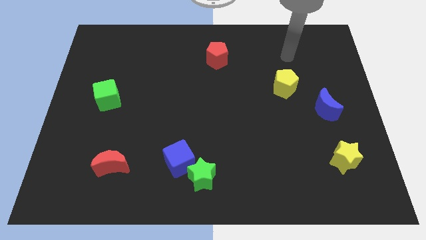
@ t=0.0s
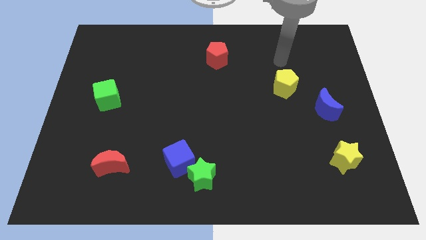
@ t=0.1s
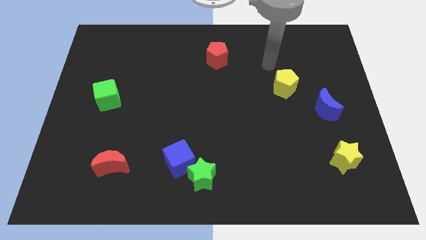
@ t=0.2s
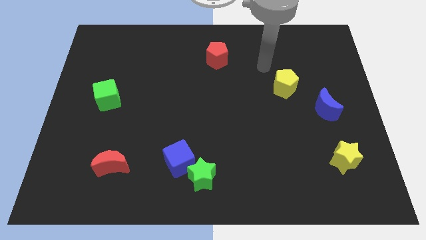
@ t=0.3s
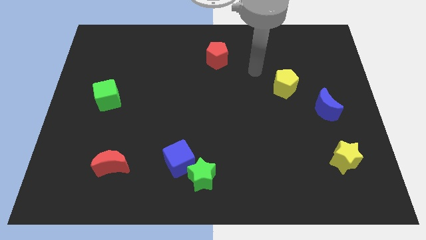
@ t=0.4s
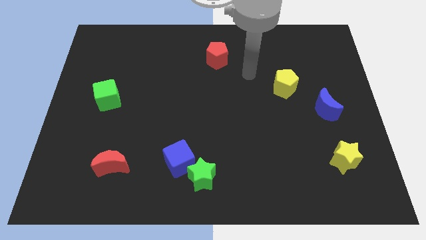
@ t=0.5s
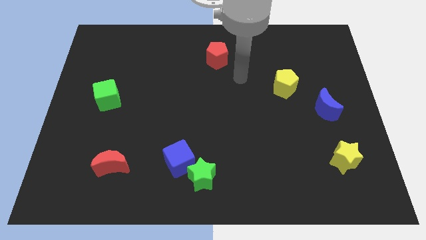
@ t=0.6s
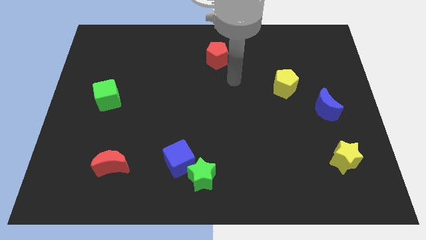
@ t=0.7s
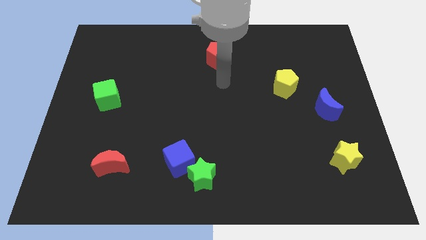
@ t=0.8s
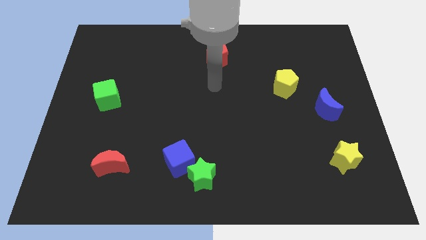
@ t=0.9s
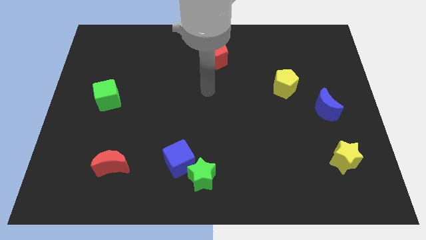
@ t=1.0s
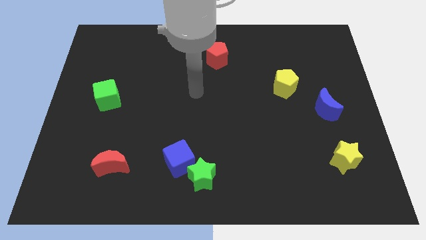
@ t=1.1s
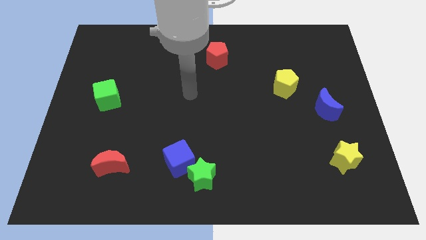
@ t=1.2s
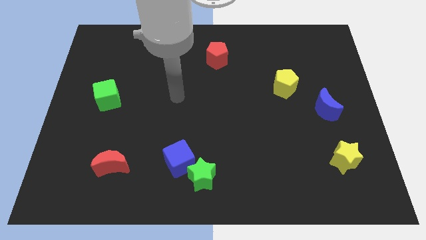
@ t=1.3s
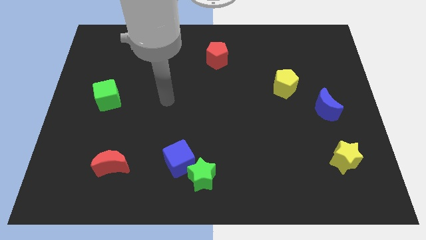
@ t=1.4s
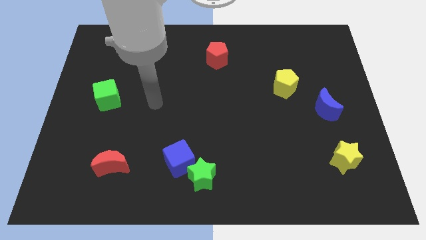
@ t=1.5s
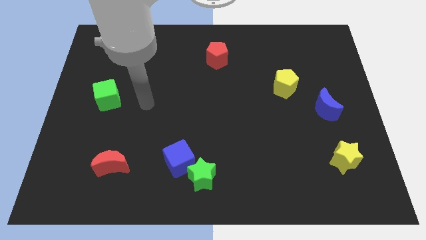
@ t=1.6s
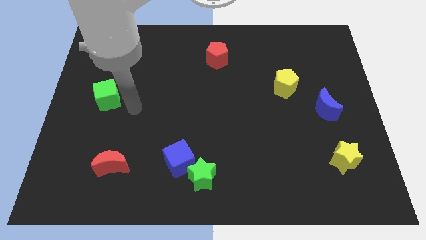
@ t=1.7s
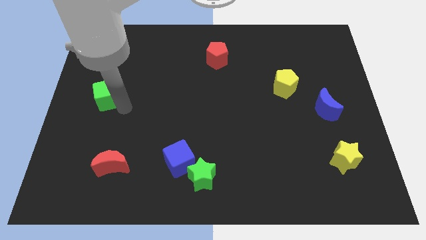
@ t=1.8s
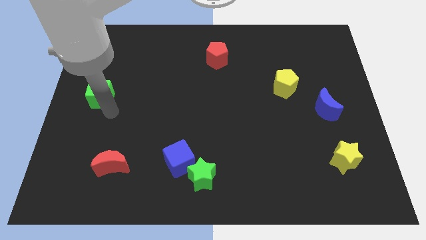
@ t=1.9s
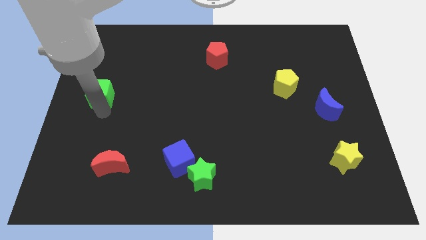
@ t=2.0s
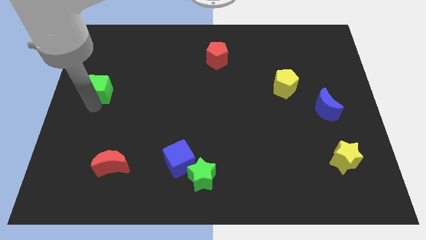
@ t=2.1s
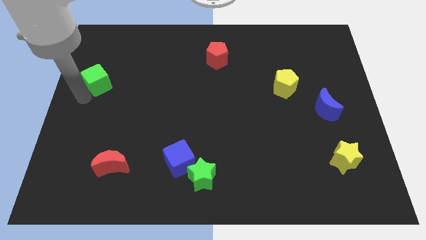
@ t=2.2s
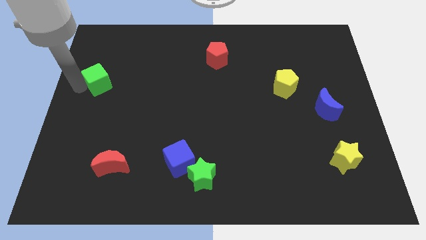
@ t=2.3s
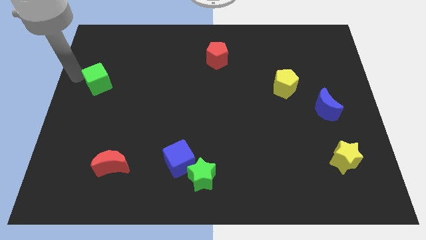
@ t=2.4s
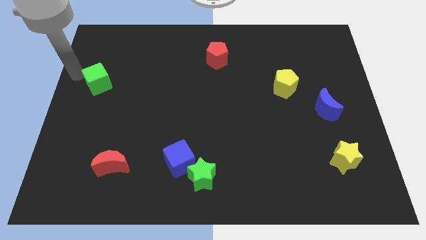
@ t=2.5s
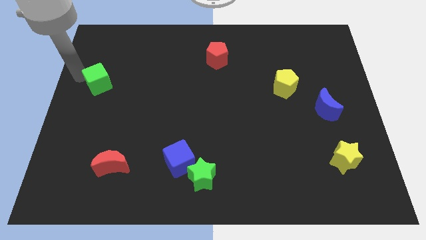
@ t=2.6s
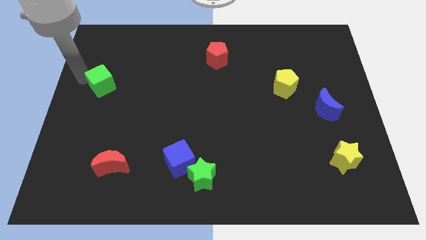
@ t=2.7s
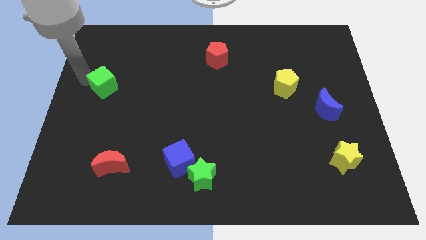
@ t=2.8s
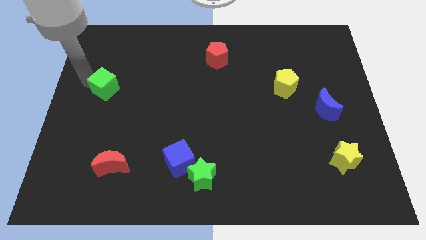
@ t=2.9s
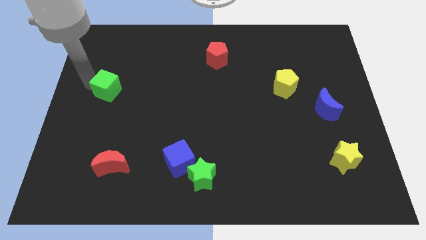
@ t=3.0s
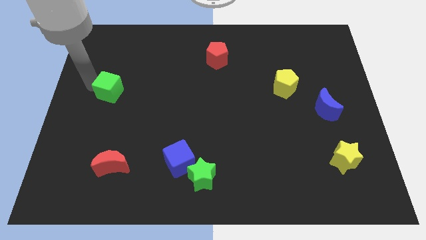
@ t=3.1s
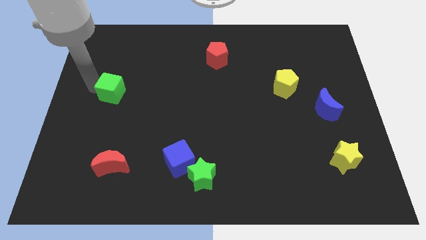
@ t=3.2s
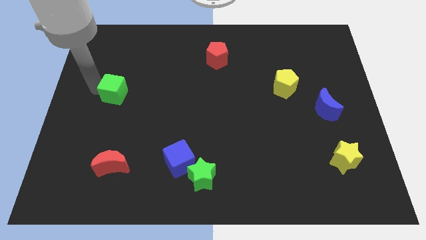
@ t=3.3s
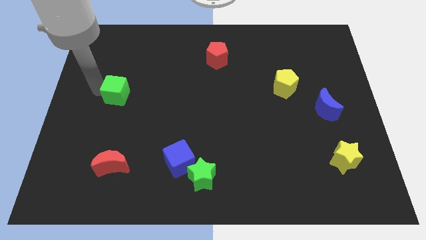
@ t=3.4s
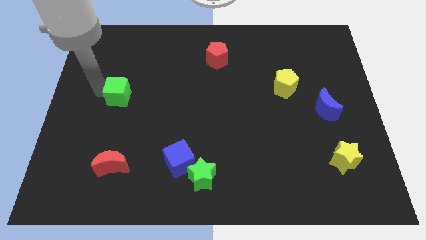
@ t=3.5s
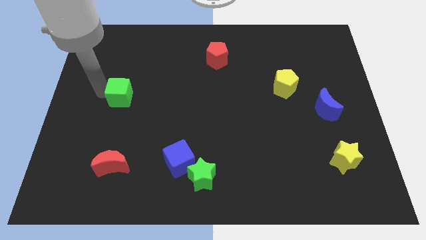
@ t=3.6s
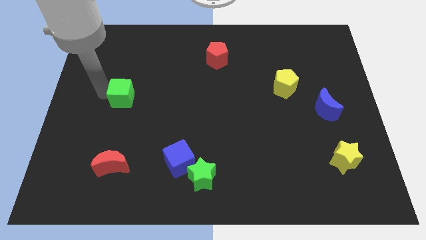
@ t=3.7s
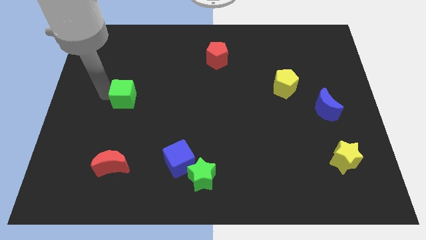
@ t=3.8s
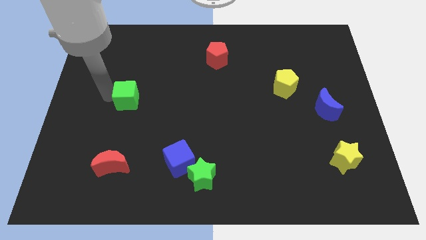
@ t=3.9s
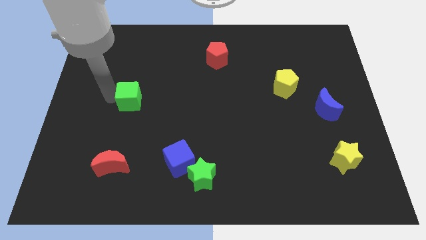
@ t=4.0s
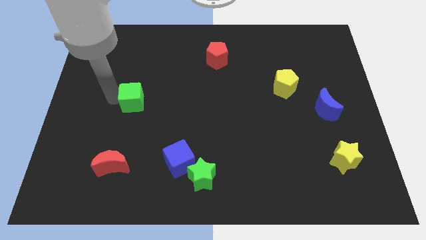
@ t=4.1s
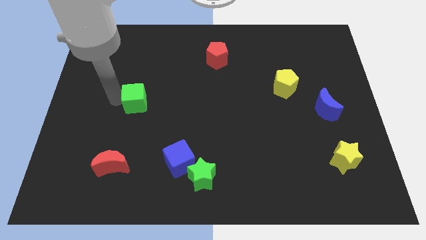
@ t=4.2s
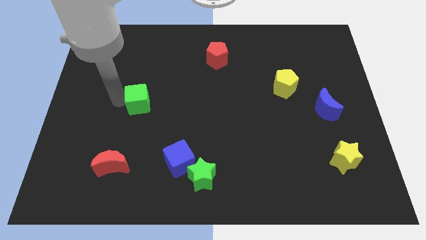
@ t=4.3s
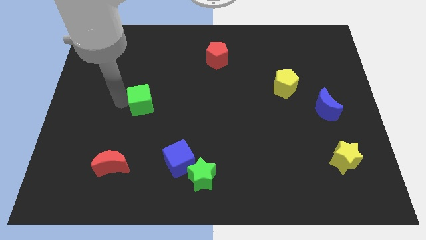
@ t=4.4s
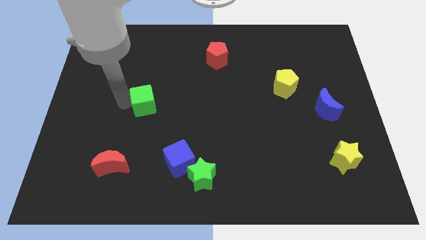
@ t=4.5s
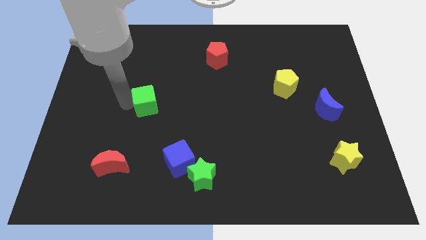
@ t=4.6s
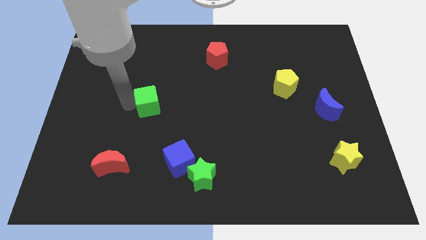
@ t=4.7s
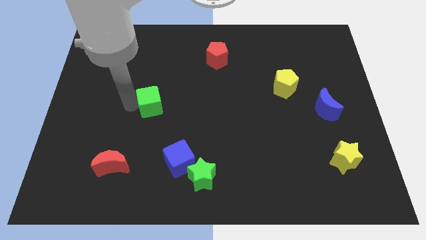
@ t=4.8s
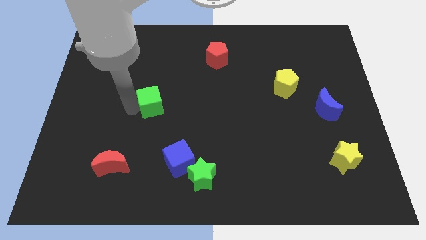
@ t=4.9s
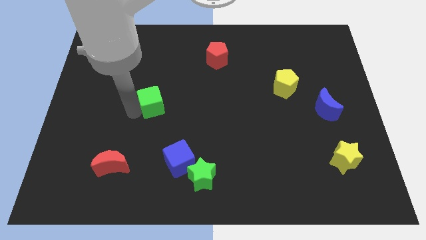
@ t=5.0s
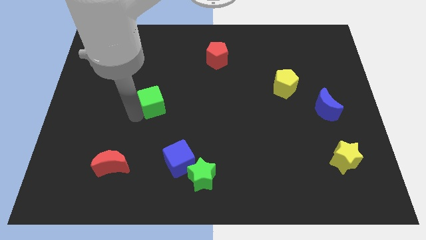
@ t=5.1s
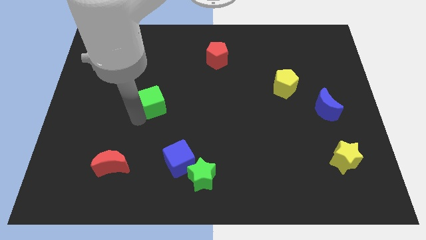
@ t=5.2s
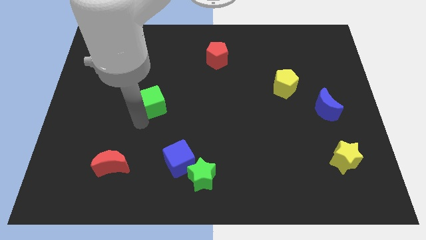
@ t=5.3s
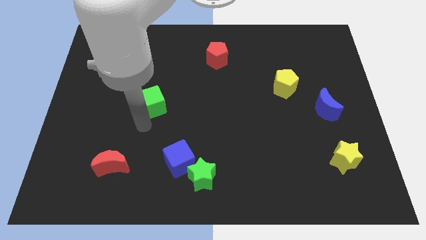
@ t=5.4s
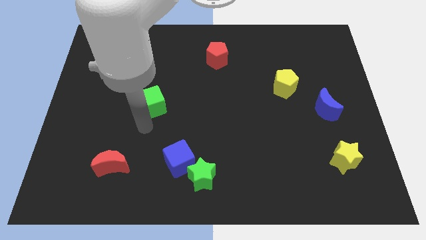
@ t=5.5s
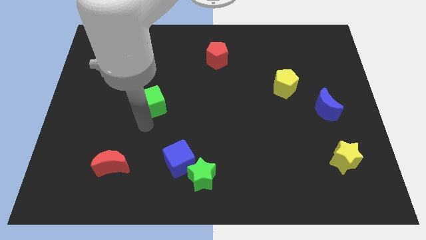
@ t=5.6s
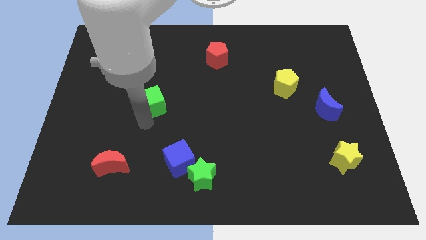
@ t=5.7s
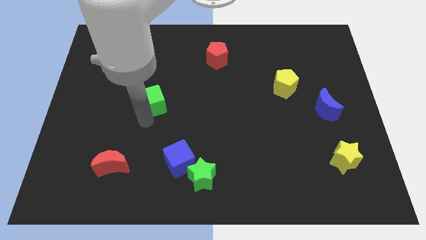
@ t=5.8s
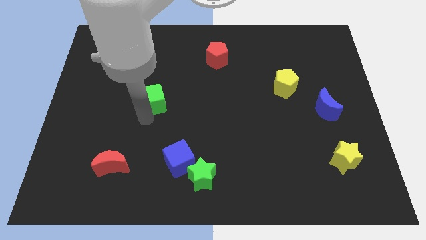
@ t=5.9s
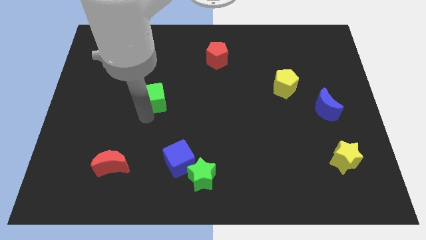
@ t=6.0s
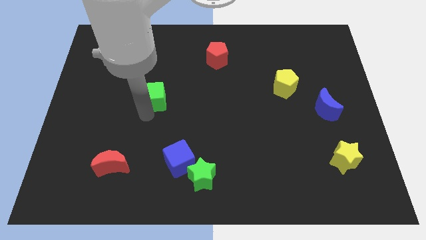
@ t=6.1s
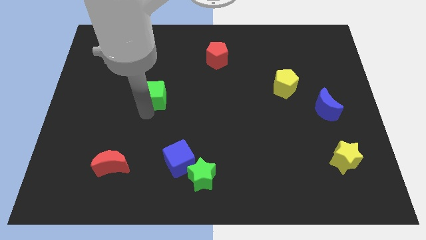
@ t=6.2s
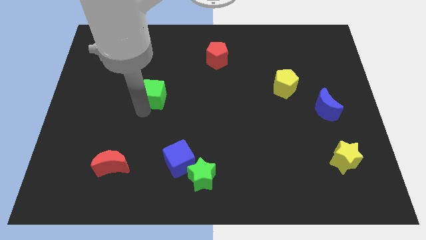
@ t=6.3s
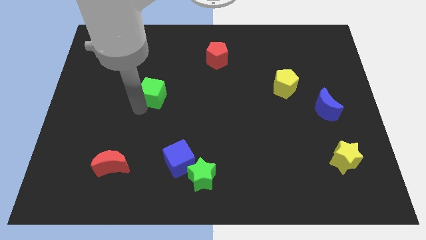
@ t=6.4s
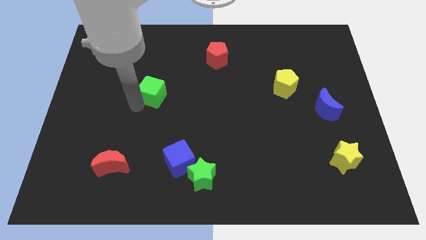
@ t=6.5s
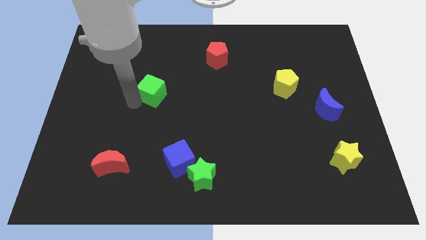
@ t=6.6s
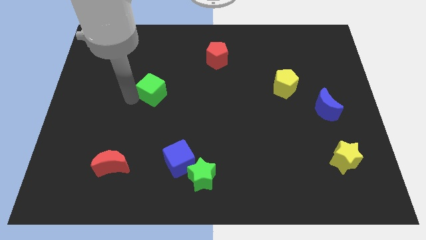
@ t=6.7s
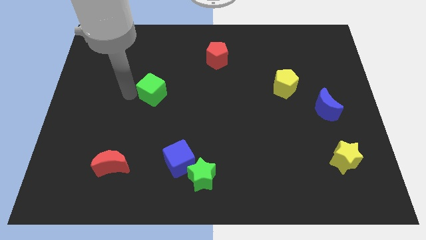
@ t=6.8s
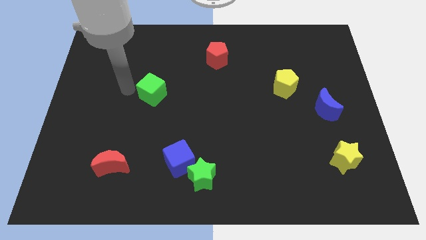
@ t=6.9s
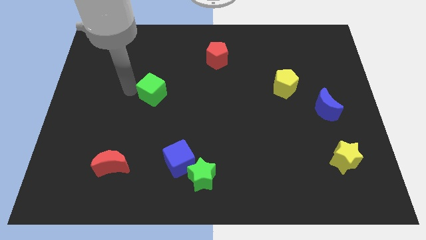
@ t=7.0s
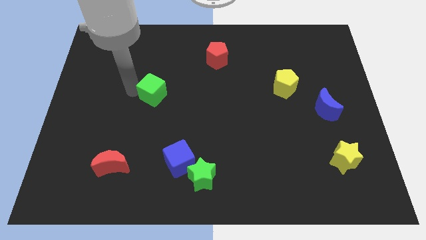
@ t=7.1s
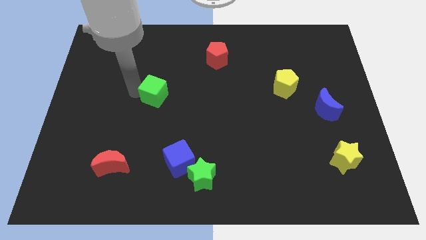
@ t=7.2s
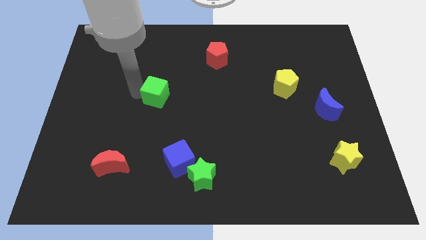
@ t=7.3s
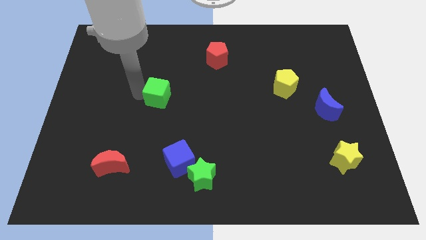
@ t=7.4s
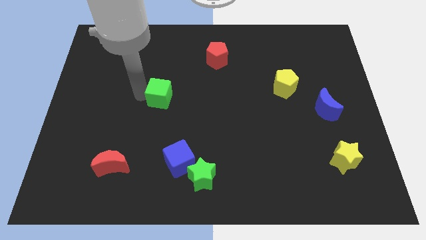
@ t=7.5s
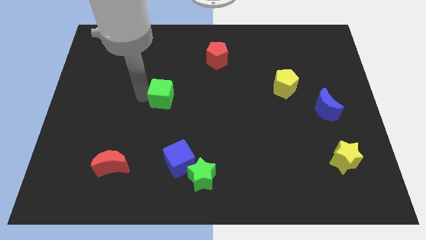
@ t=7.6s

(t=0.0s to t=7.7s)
push the green cube to the center of the board
